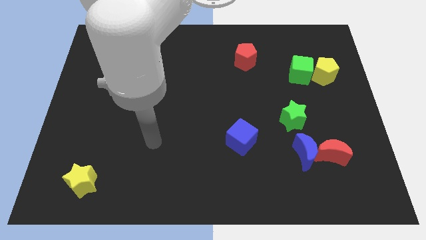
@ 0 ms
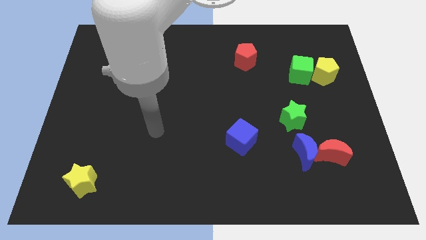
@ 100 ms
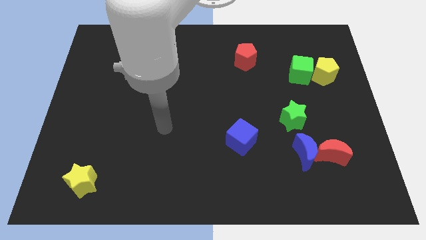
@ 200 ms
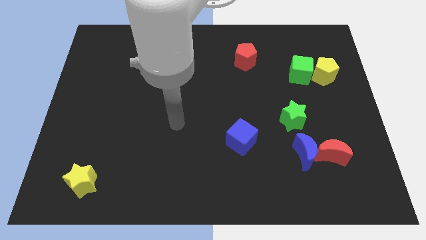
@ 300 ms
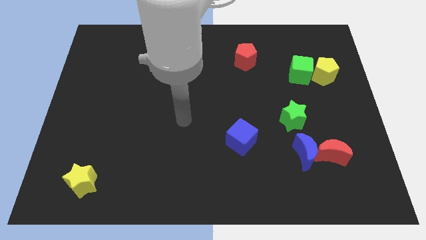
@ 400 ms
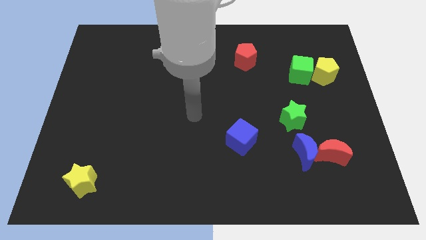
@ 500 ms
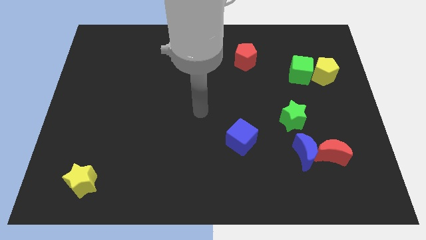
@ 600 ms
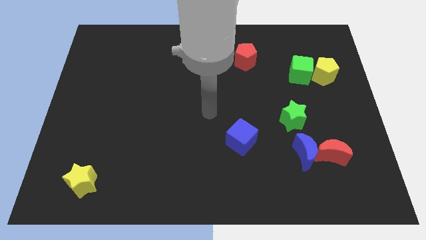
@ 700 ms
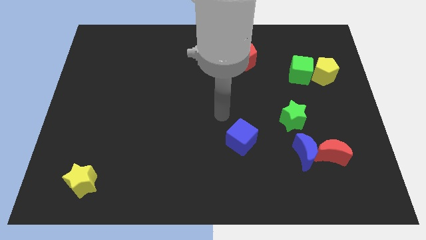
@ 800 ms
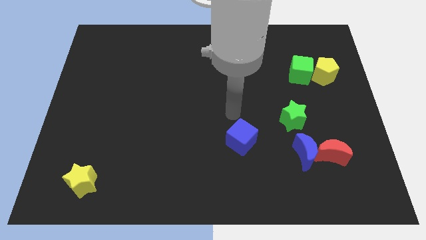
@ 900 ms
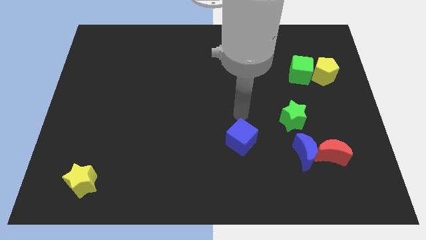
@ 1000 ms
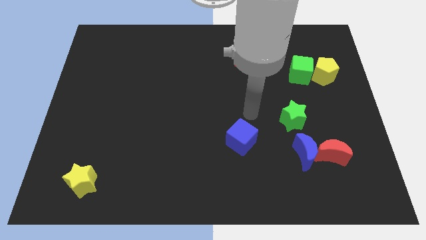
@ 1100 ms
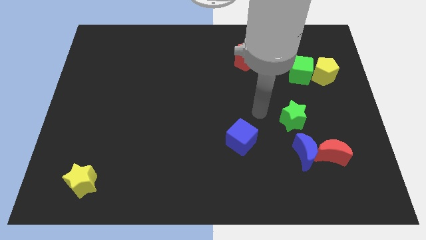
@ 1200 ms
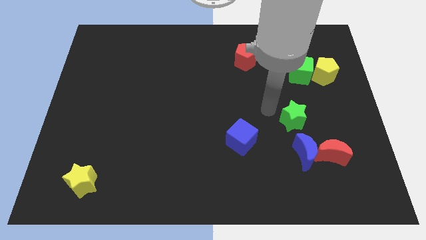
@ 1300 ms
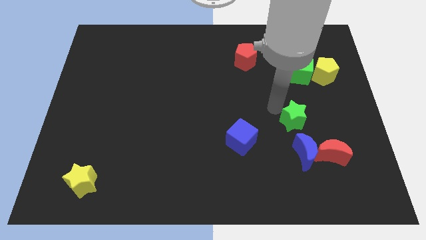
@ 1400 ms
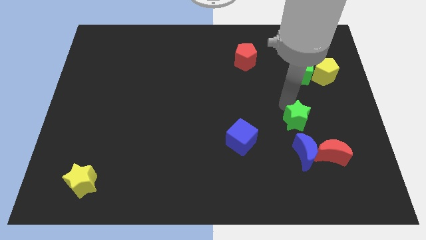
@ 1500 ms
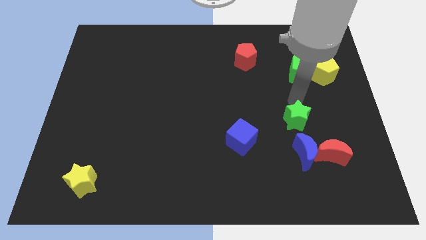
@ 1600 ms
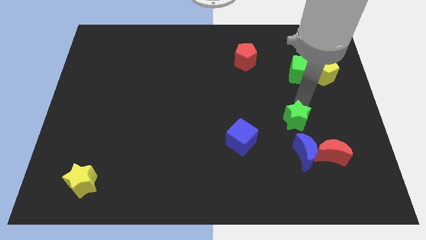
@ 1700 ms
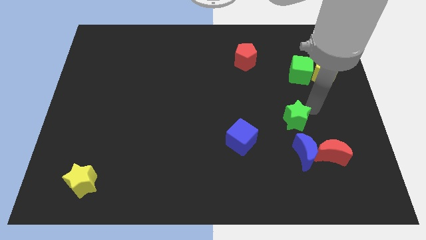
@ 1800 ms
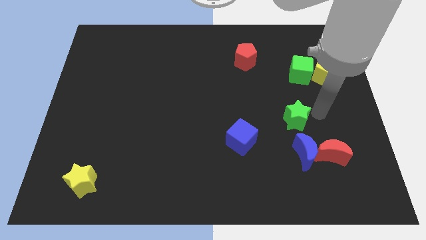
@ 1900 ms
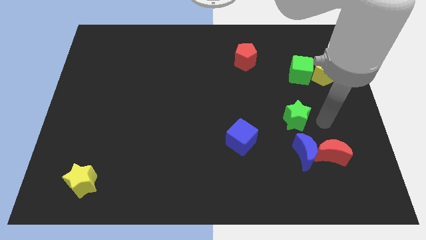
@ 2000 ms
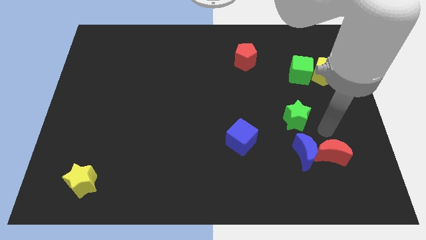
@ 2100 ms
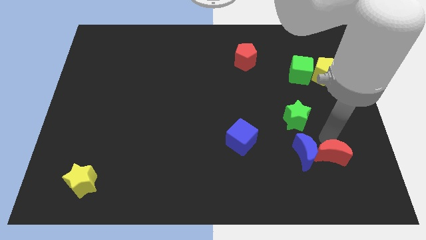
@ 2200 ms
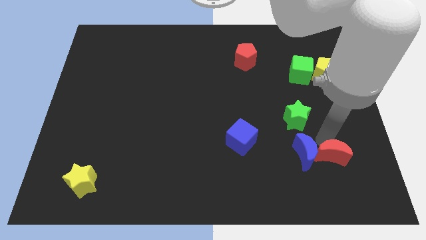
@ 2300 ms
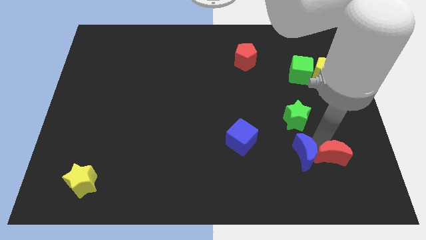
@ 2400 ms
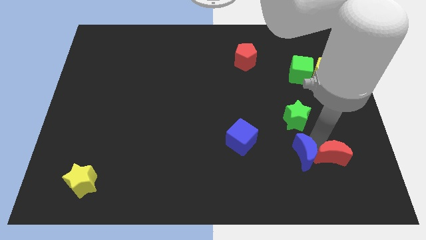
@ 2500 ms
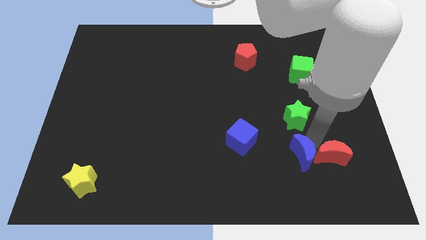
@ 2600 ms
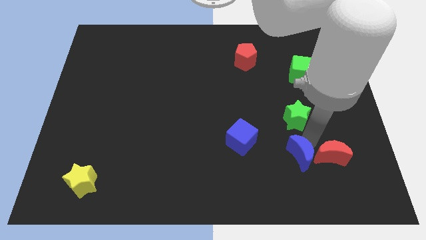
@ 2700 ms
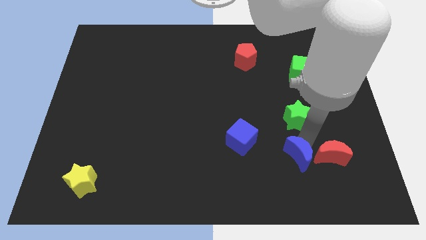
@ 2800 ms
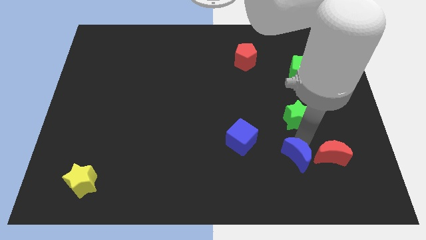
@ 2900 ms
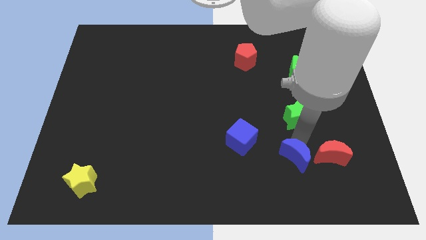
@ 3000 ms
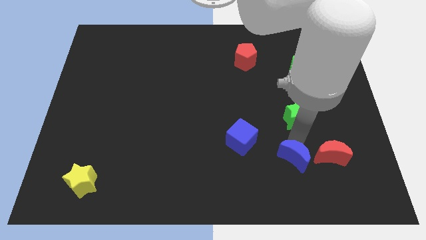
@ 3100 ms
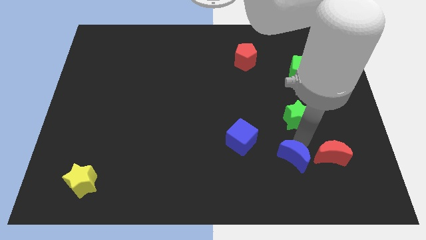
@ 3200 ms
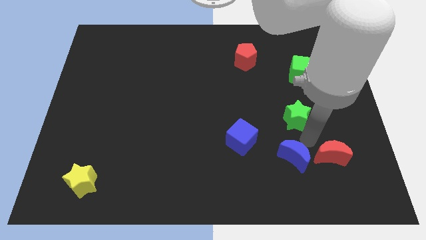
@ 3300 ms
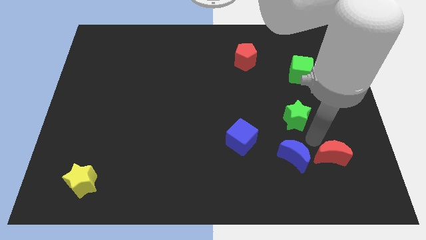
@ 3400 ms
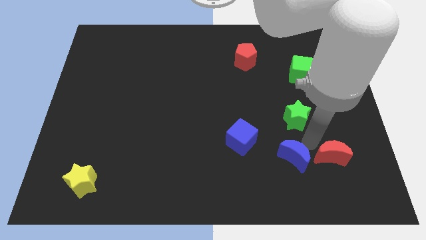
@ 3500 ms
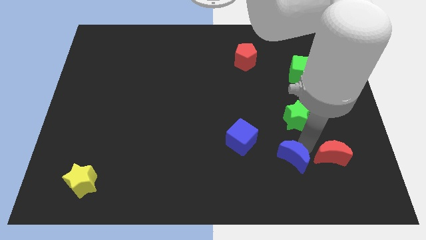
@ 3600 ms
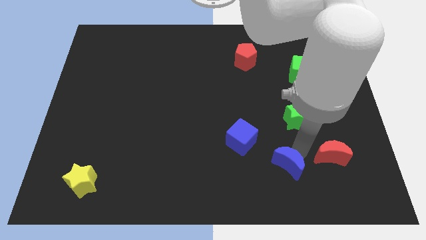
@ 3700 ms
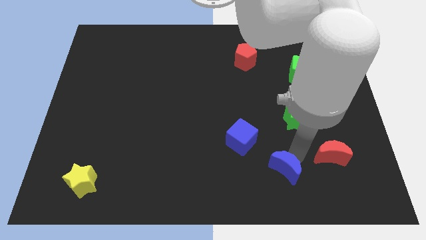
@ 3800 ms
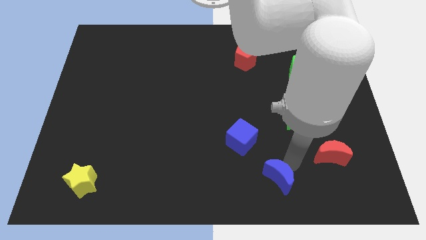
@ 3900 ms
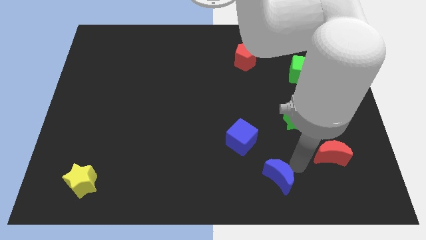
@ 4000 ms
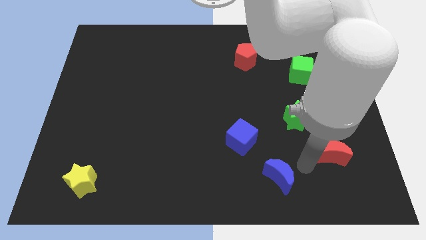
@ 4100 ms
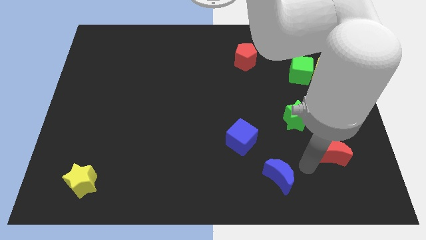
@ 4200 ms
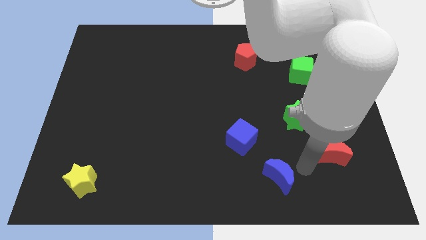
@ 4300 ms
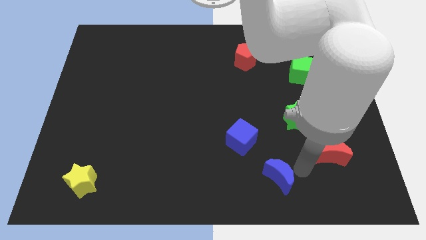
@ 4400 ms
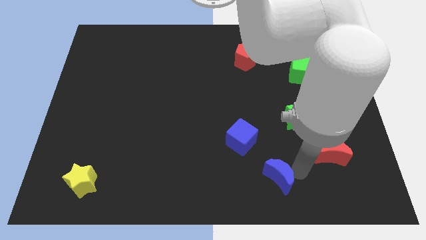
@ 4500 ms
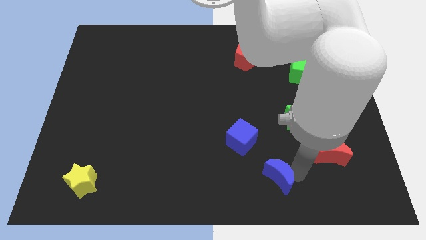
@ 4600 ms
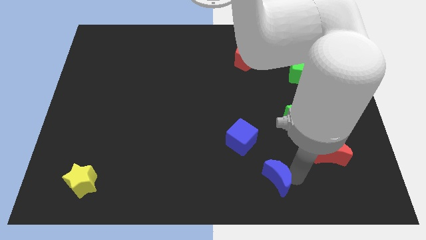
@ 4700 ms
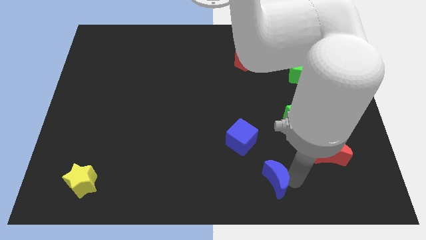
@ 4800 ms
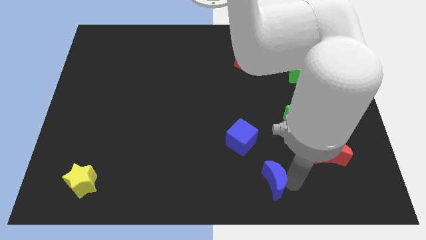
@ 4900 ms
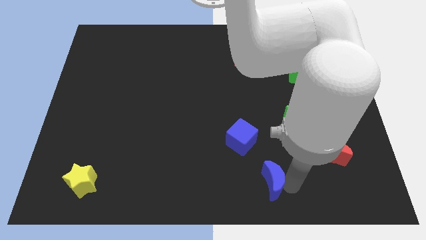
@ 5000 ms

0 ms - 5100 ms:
put the blue moon to the bottom

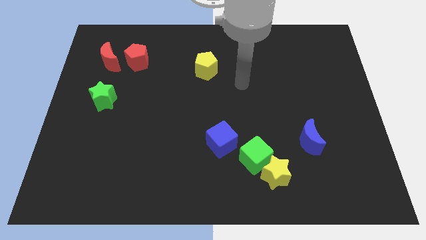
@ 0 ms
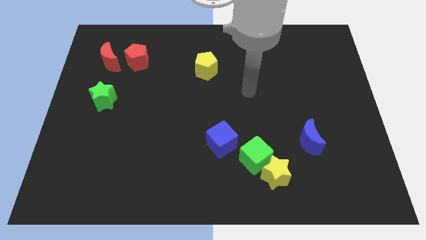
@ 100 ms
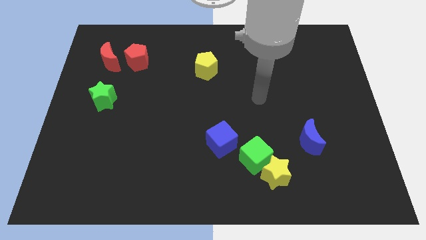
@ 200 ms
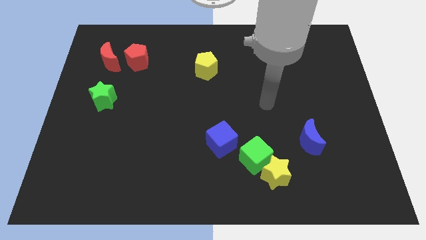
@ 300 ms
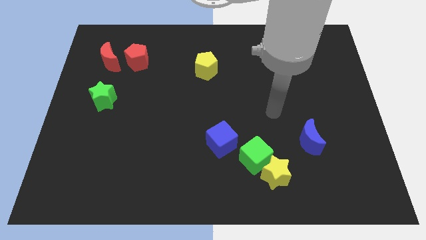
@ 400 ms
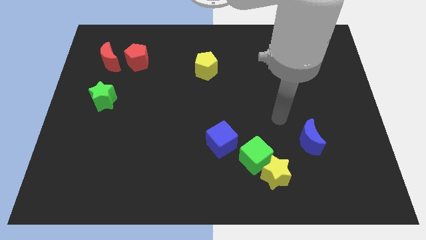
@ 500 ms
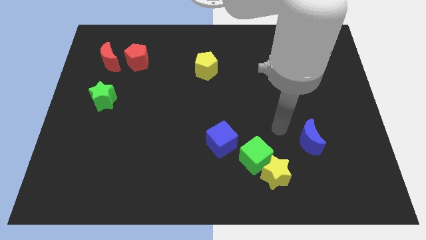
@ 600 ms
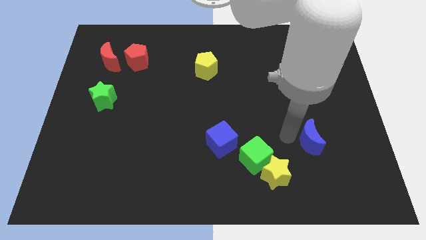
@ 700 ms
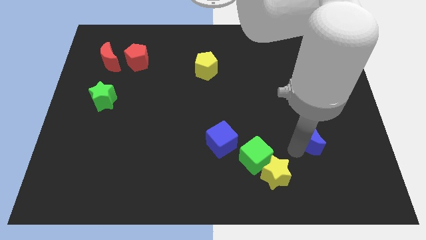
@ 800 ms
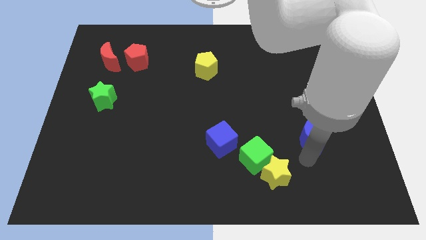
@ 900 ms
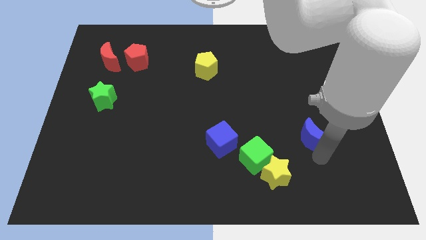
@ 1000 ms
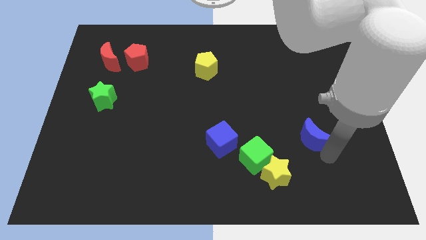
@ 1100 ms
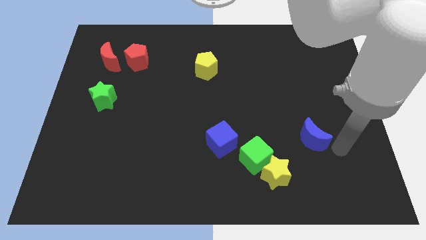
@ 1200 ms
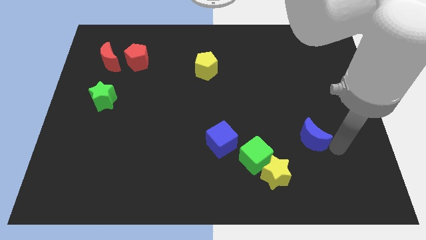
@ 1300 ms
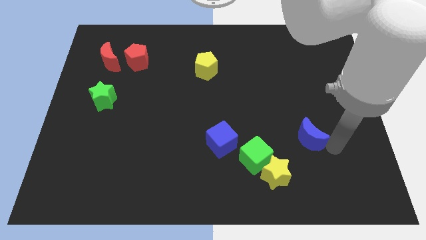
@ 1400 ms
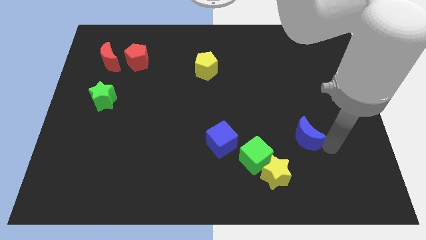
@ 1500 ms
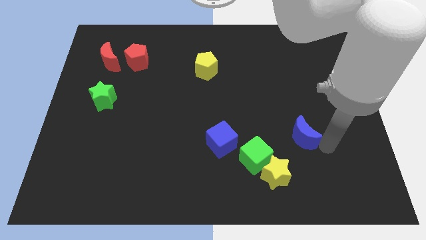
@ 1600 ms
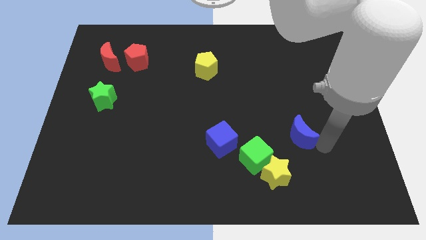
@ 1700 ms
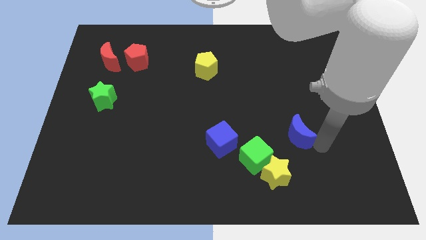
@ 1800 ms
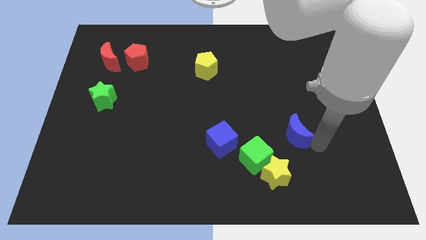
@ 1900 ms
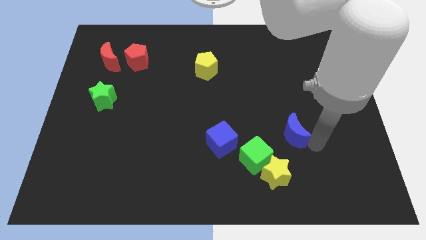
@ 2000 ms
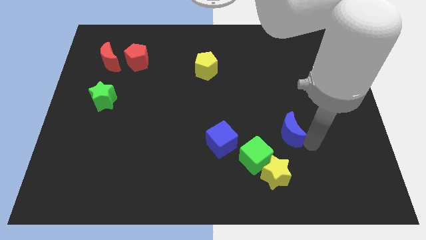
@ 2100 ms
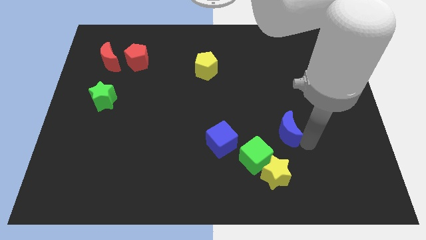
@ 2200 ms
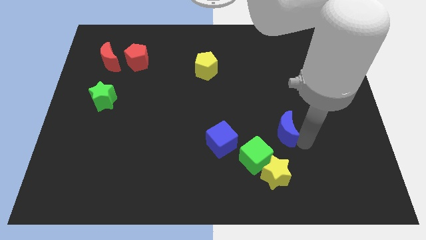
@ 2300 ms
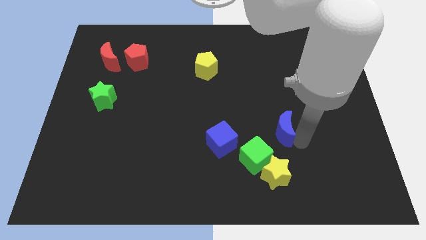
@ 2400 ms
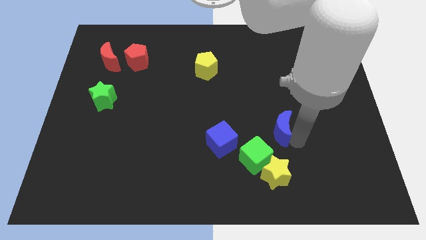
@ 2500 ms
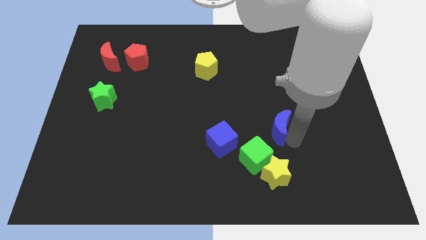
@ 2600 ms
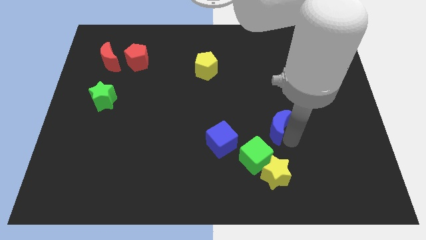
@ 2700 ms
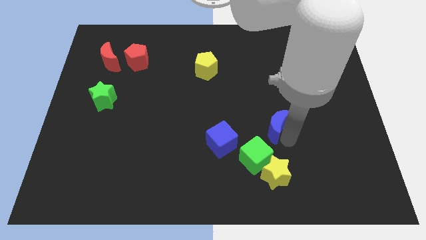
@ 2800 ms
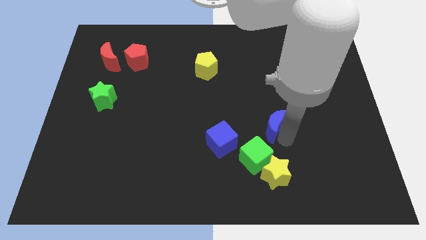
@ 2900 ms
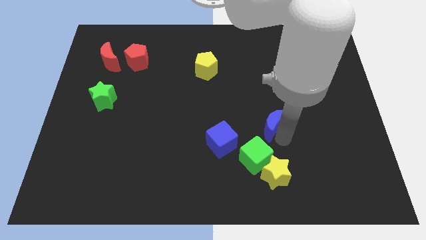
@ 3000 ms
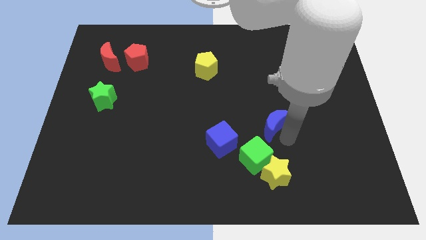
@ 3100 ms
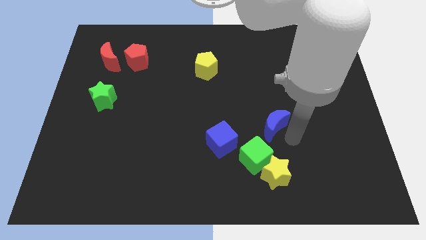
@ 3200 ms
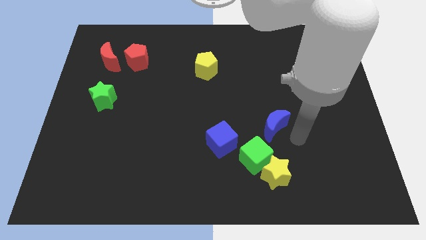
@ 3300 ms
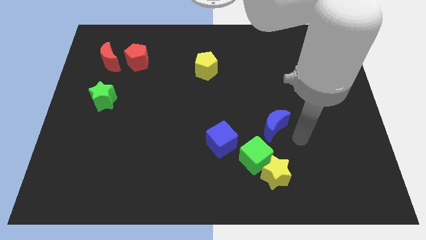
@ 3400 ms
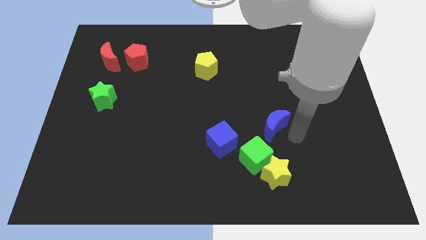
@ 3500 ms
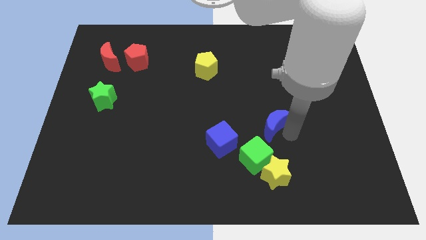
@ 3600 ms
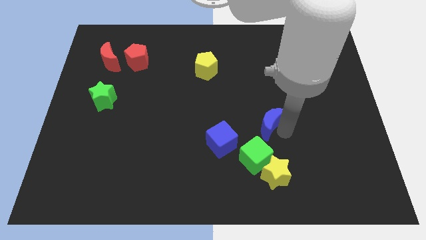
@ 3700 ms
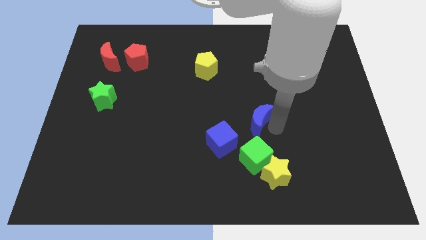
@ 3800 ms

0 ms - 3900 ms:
push the blue moon to the middle
